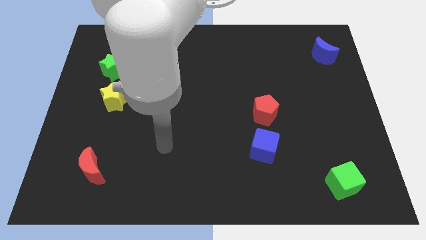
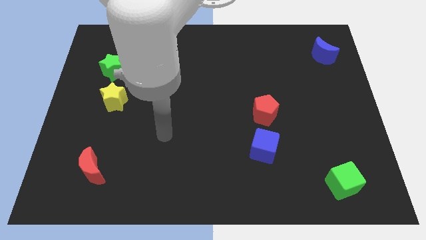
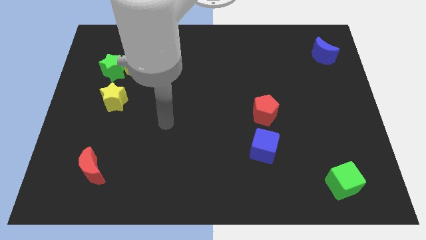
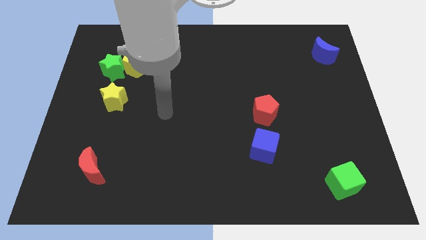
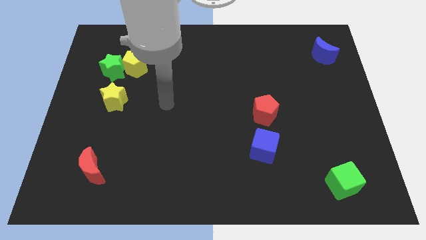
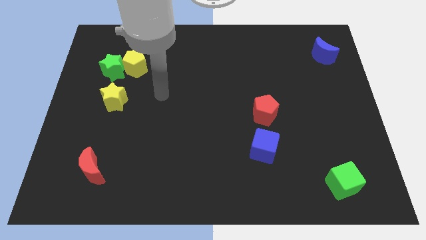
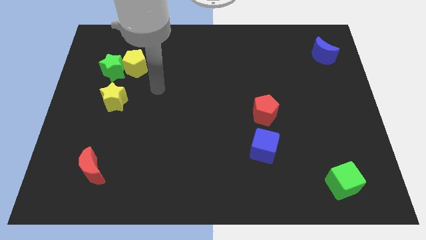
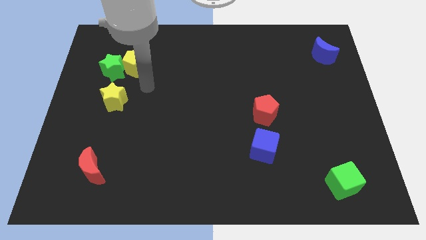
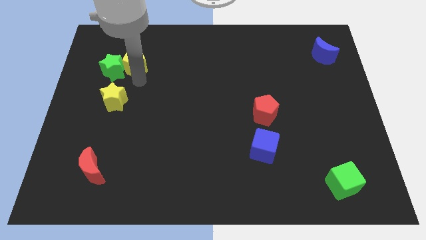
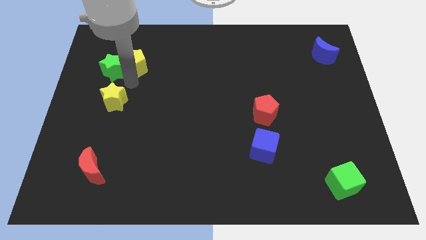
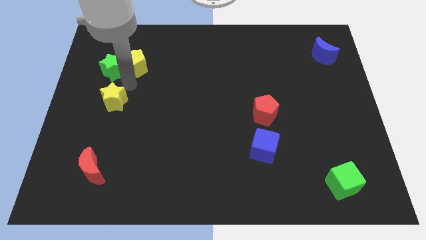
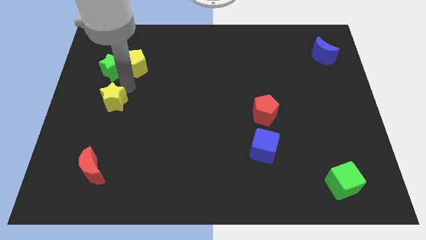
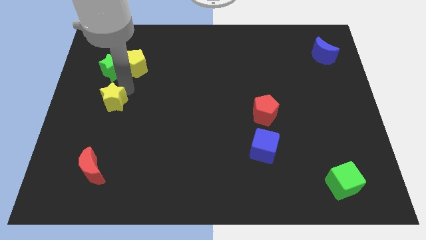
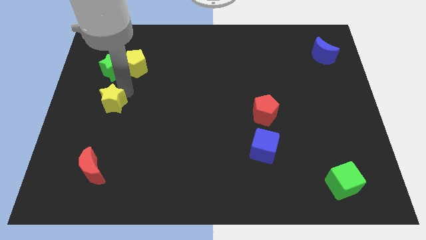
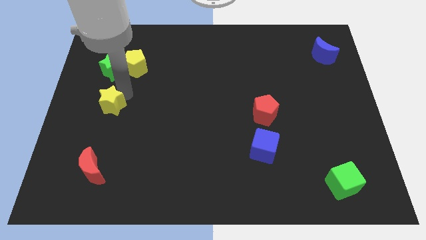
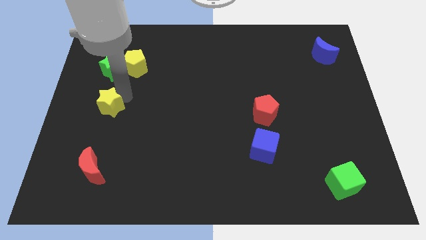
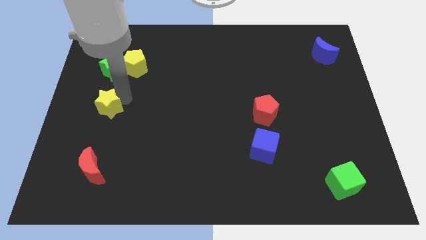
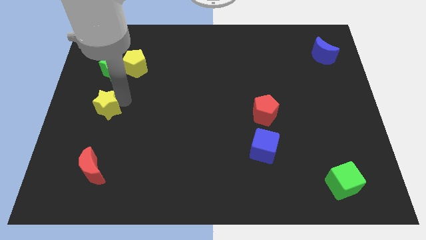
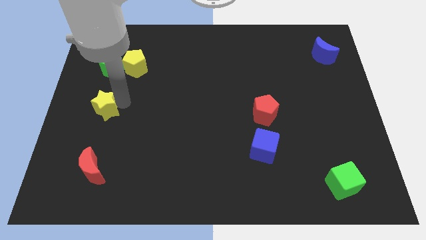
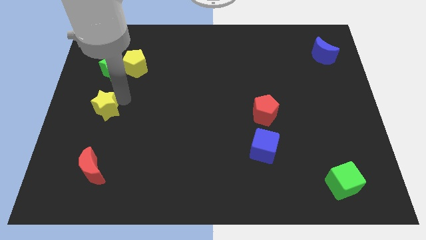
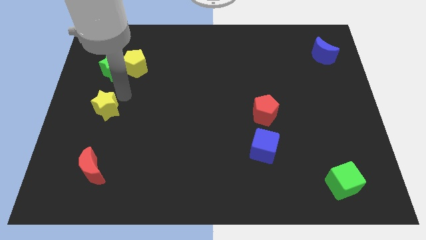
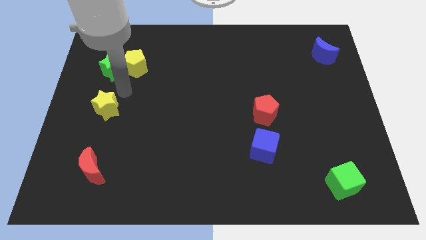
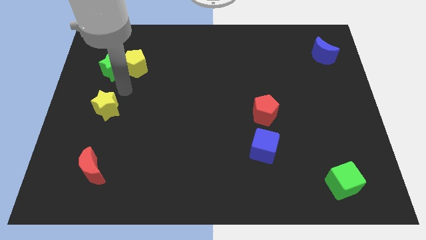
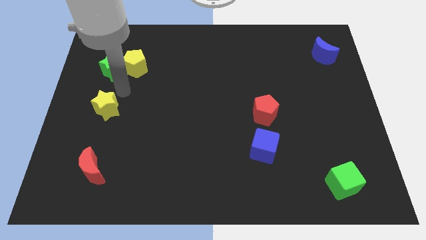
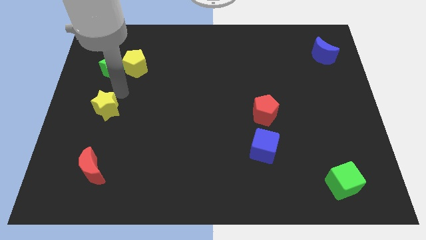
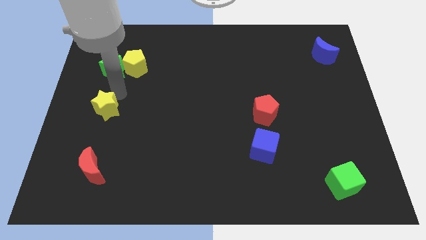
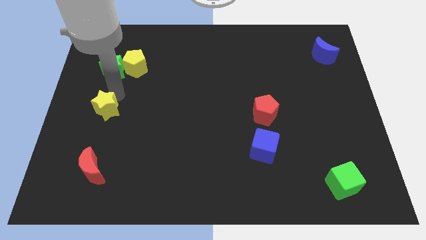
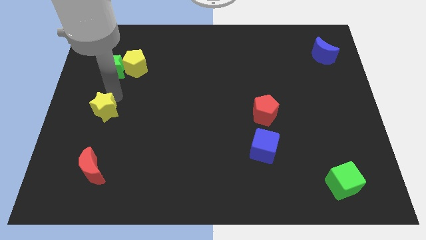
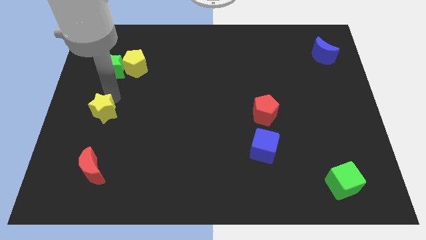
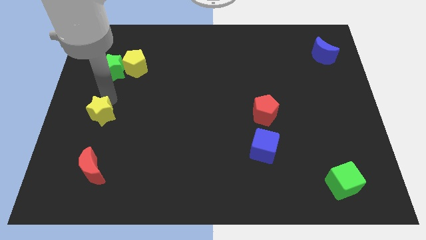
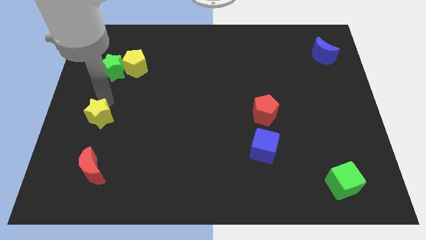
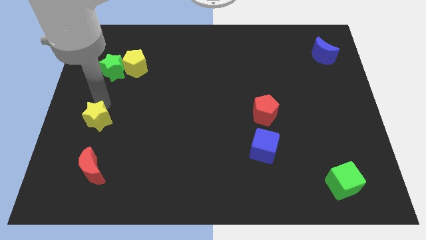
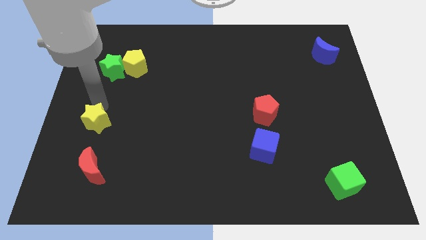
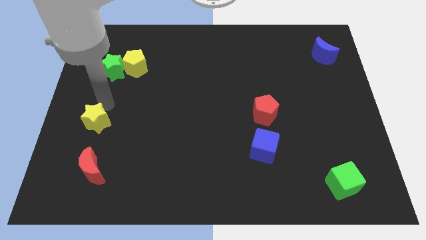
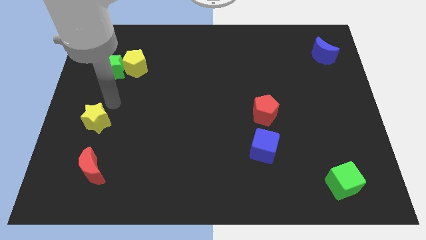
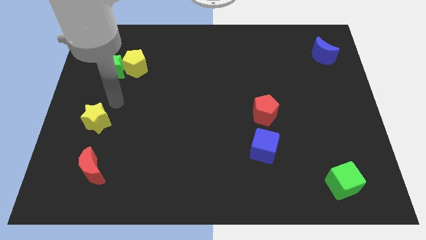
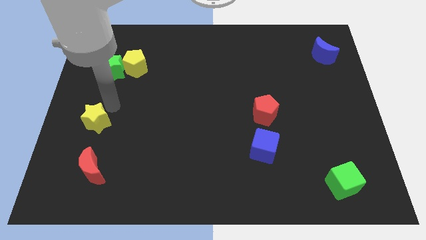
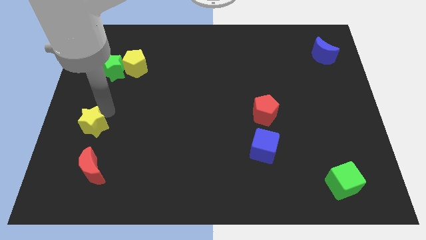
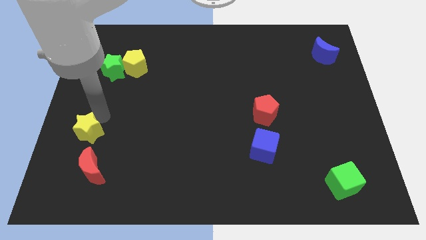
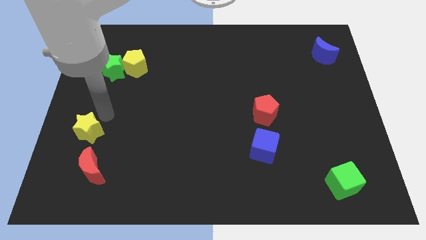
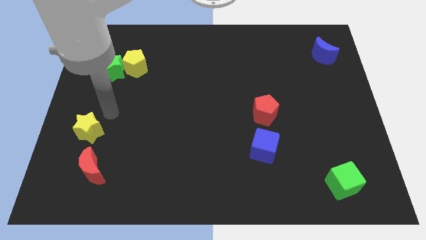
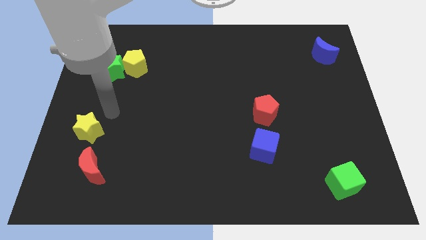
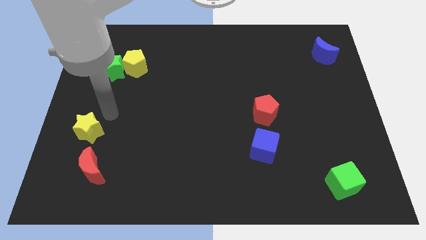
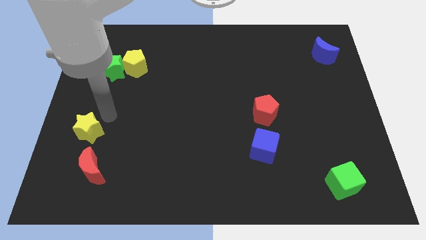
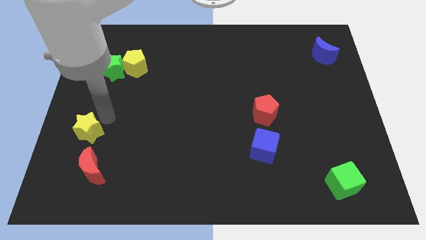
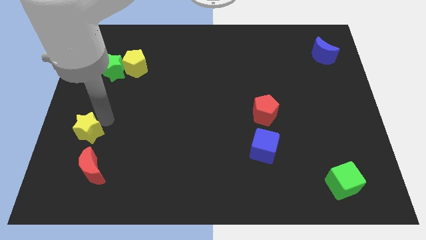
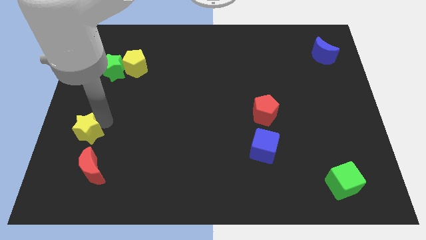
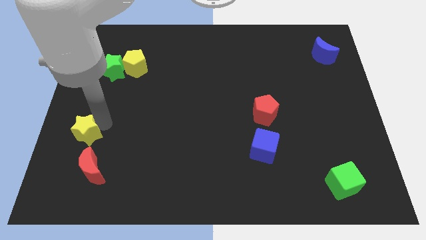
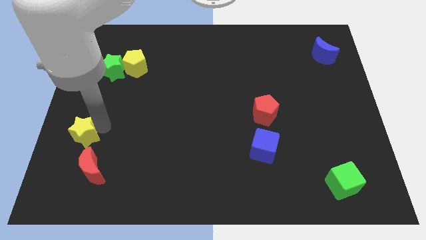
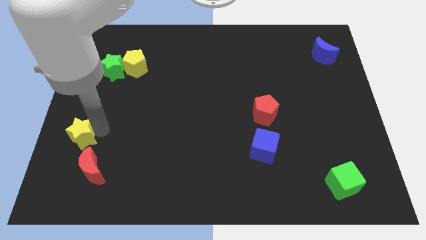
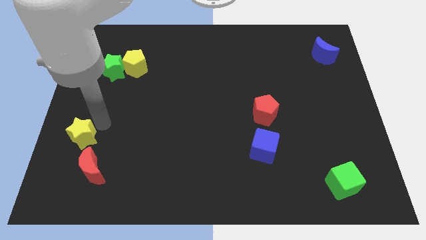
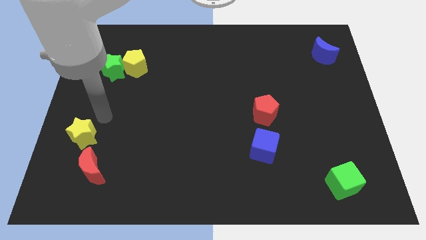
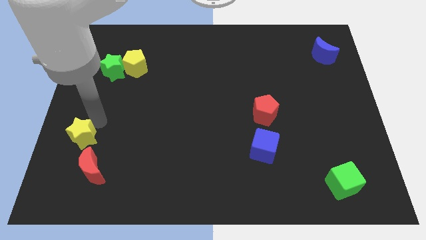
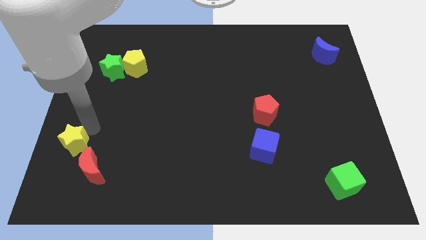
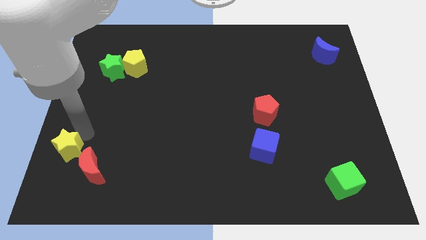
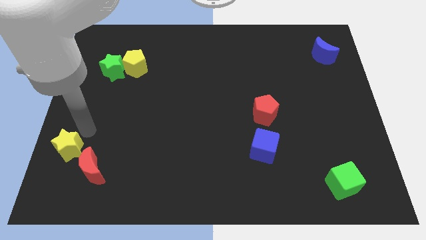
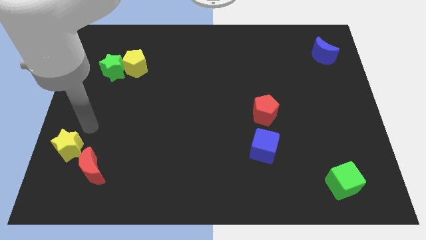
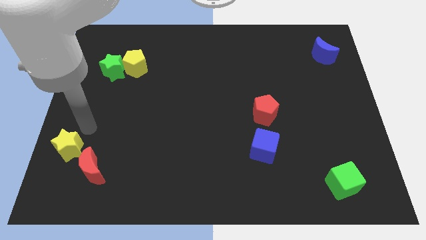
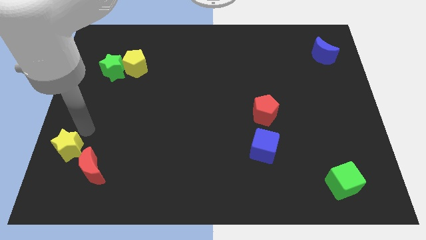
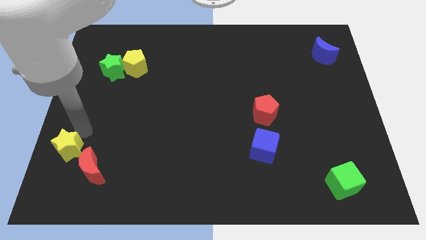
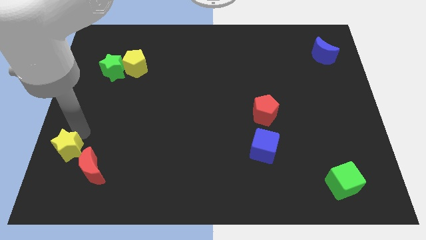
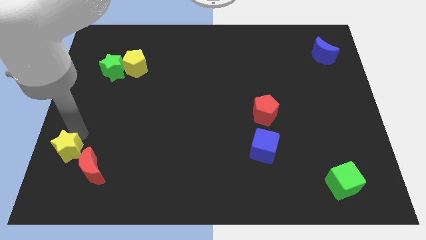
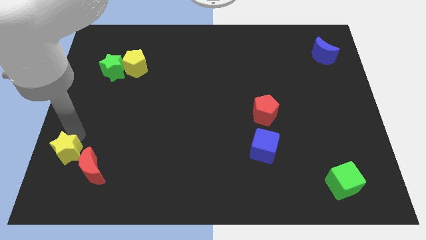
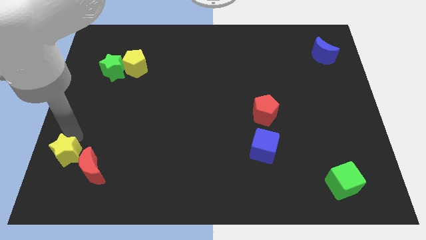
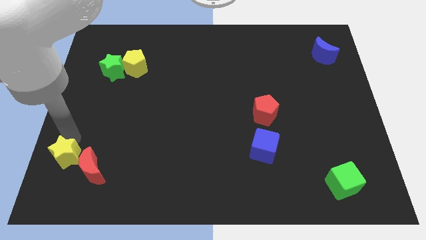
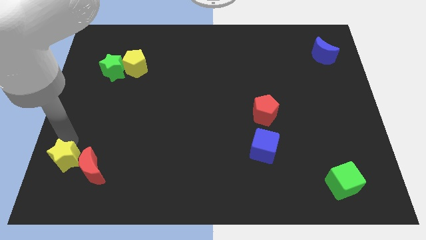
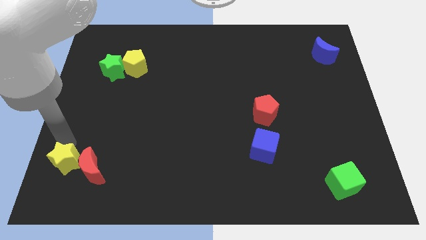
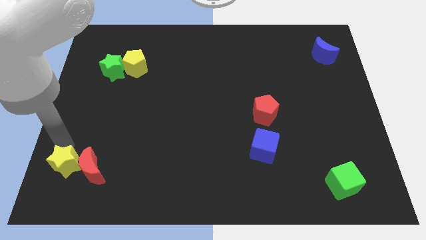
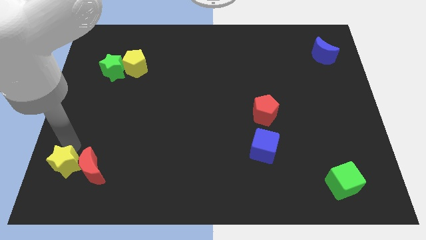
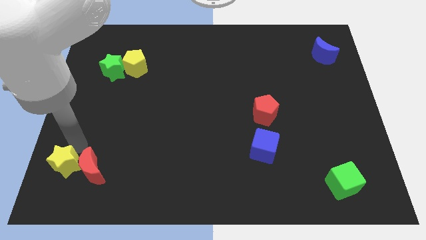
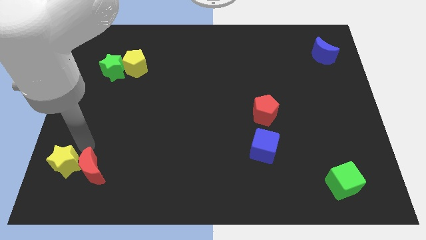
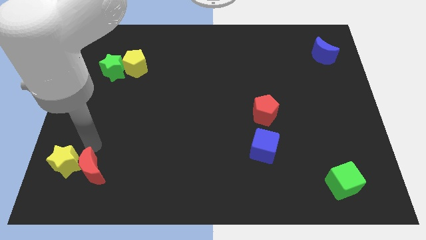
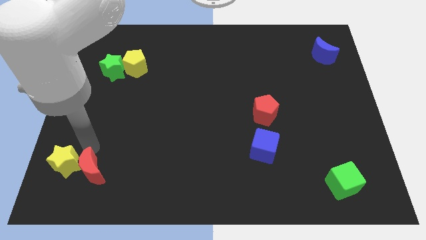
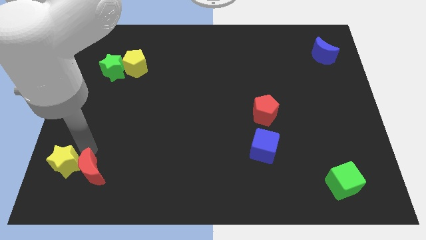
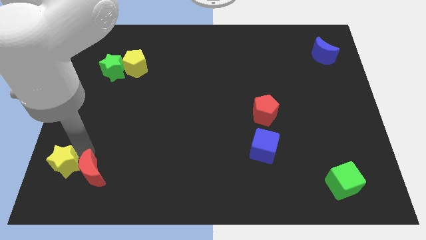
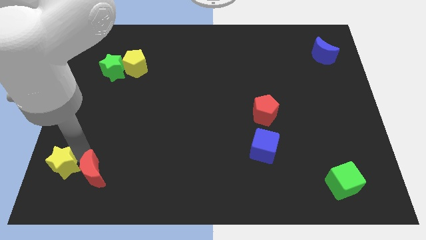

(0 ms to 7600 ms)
push the yellow star to the lower left corner
